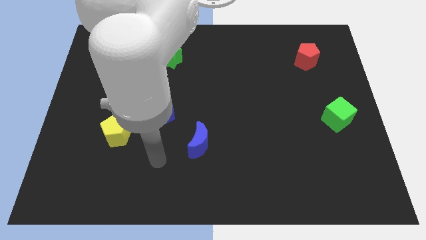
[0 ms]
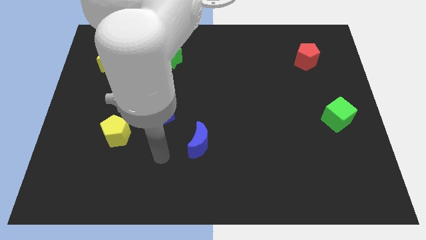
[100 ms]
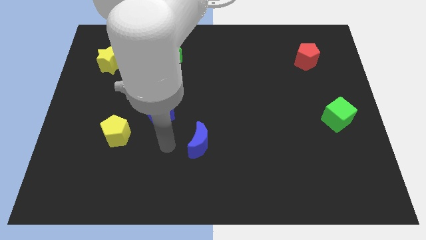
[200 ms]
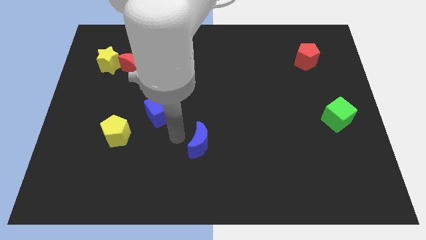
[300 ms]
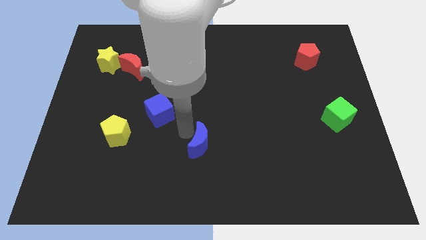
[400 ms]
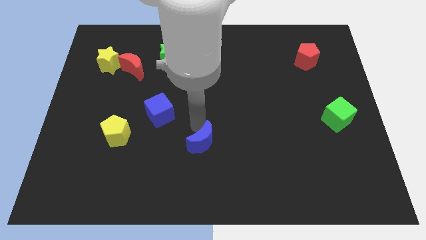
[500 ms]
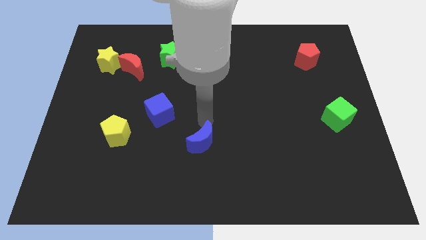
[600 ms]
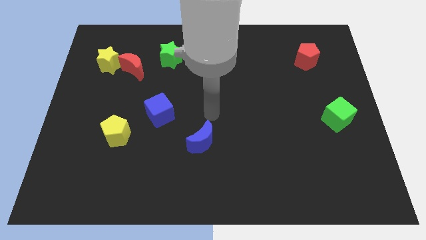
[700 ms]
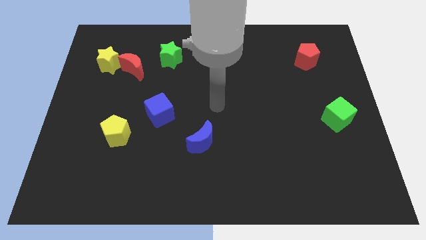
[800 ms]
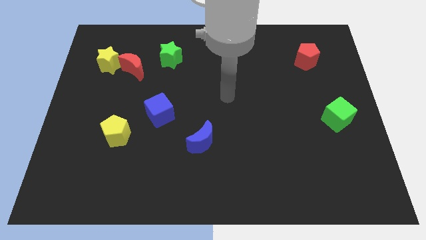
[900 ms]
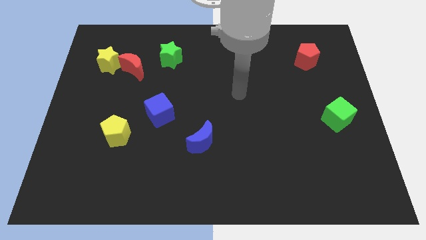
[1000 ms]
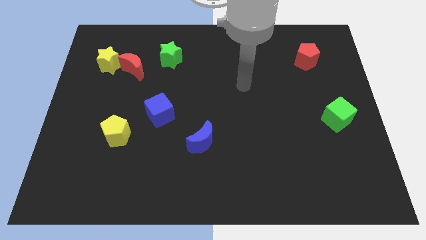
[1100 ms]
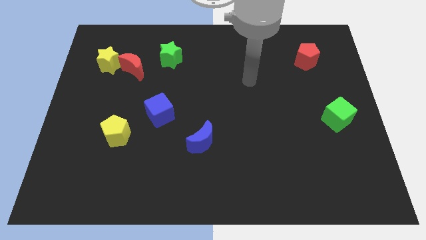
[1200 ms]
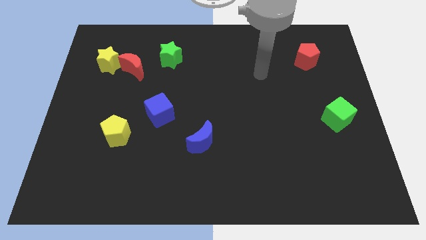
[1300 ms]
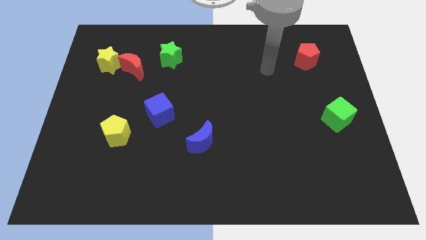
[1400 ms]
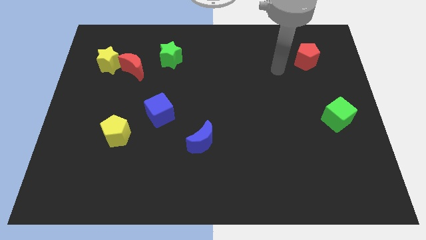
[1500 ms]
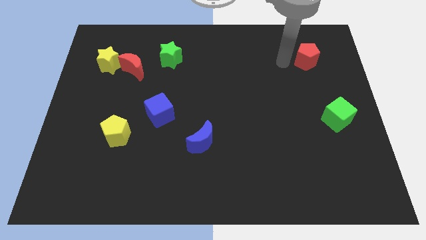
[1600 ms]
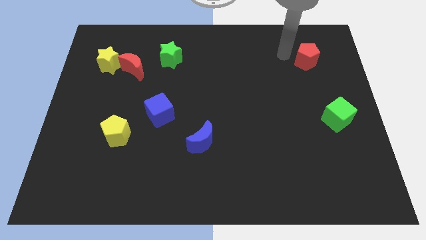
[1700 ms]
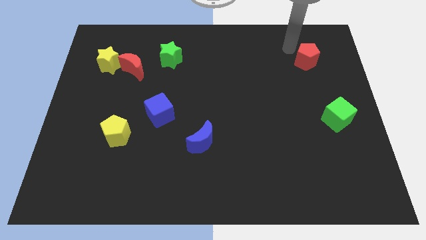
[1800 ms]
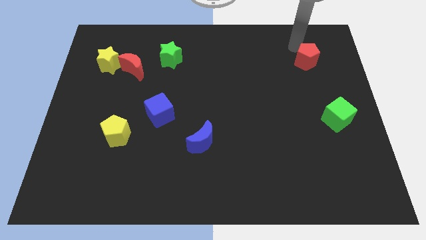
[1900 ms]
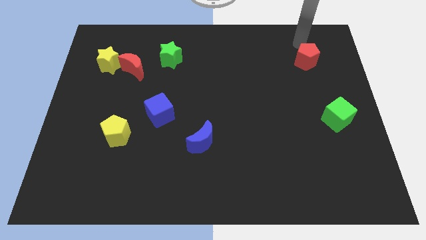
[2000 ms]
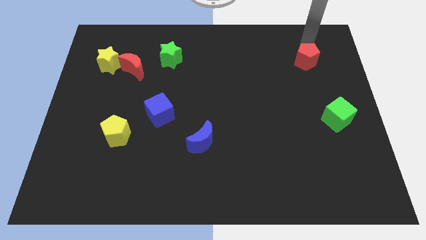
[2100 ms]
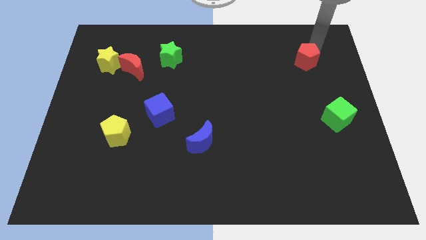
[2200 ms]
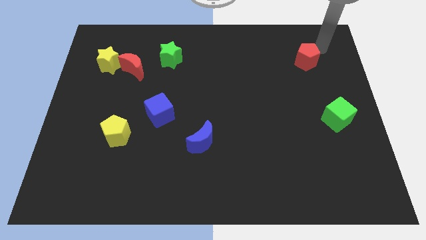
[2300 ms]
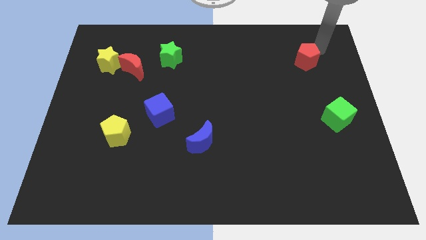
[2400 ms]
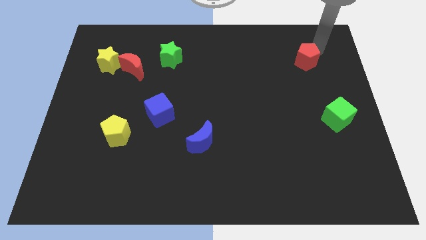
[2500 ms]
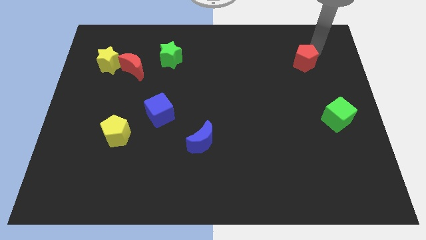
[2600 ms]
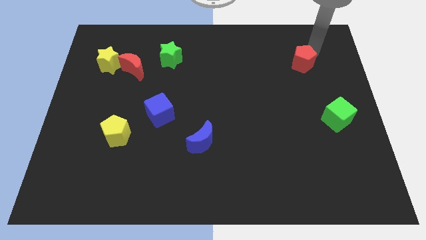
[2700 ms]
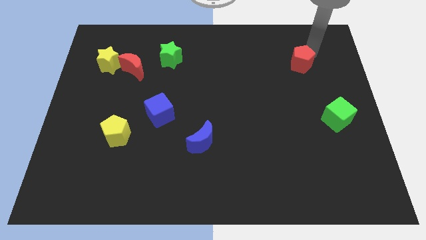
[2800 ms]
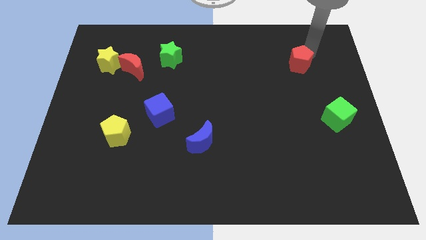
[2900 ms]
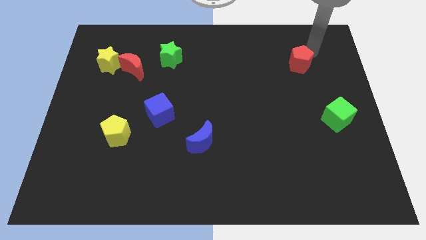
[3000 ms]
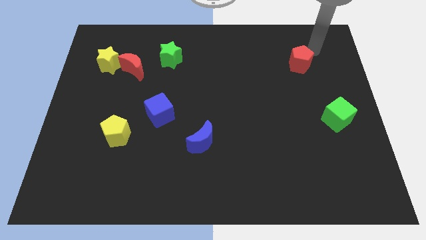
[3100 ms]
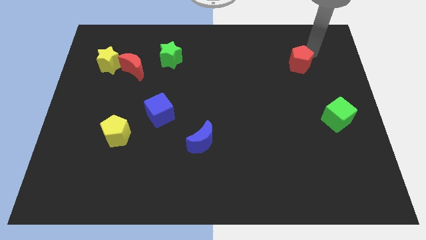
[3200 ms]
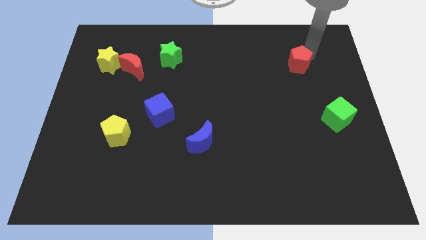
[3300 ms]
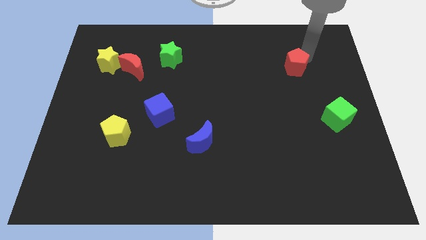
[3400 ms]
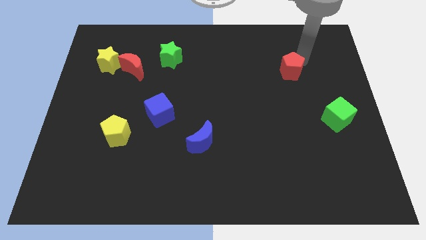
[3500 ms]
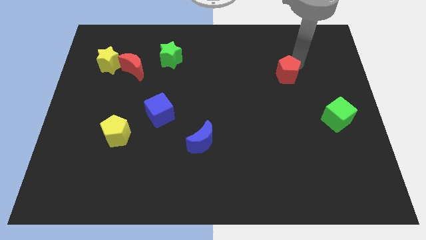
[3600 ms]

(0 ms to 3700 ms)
move the red pentagon somewhat down and left

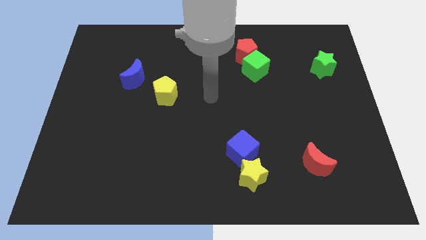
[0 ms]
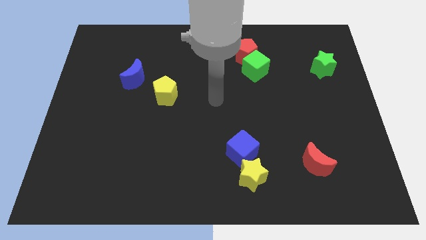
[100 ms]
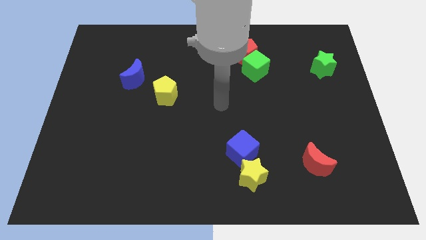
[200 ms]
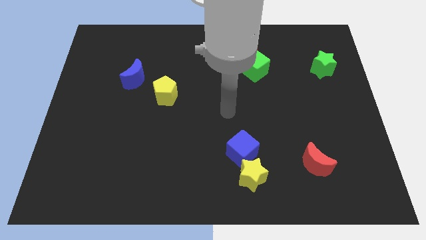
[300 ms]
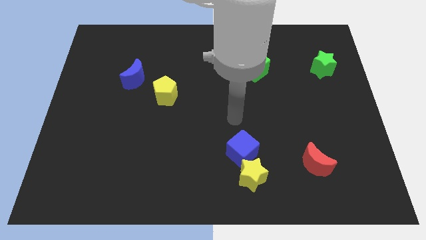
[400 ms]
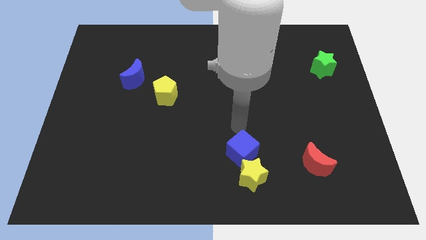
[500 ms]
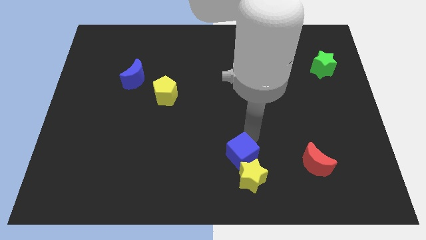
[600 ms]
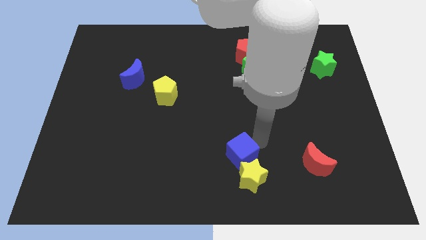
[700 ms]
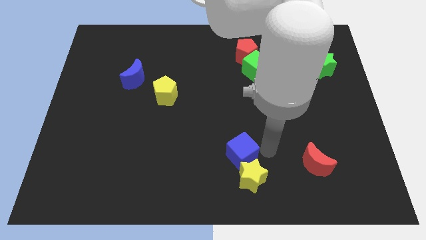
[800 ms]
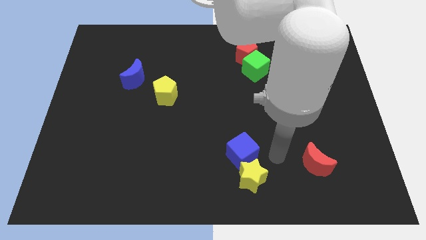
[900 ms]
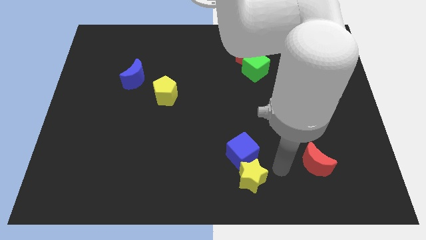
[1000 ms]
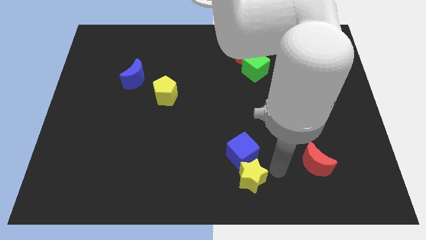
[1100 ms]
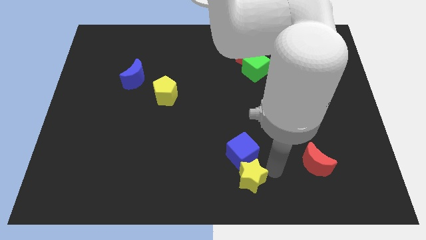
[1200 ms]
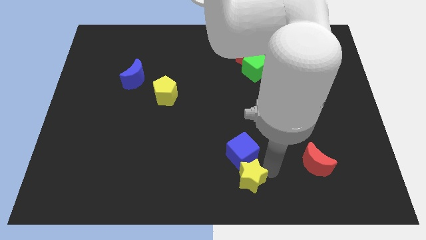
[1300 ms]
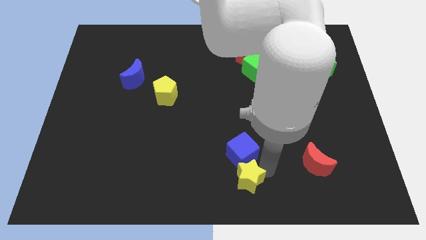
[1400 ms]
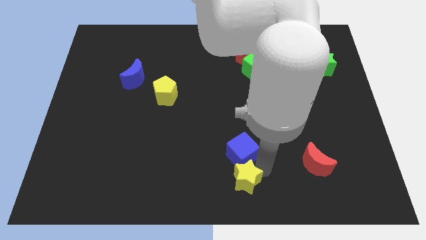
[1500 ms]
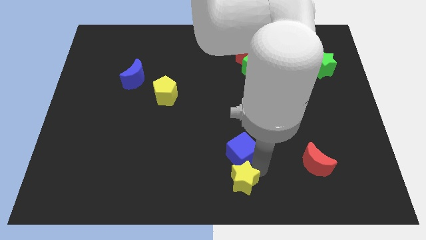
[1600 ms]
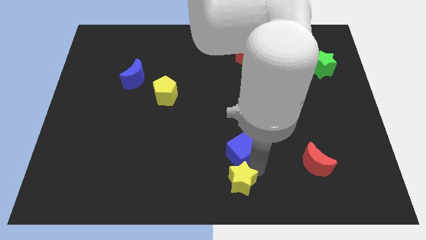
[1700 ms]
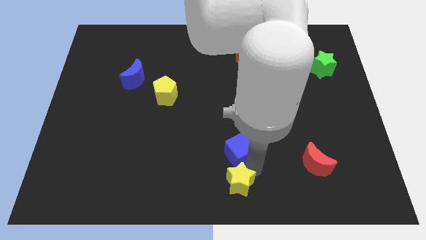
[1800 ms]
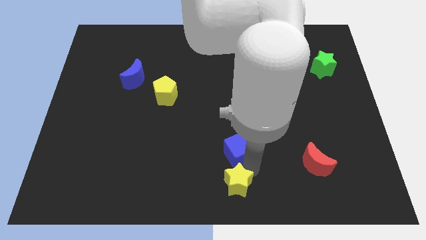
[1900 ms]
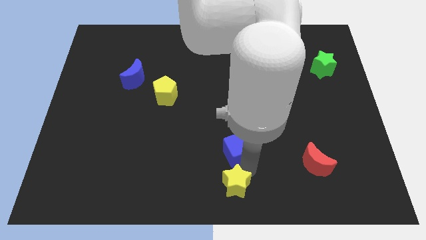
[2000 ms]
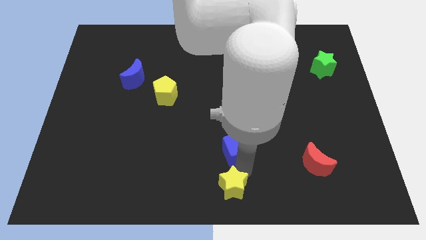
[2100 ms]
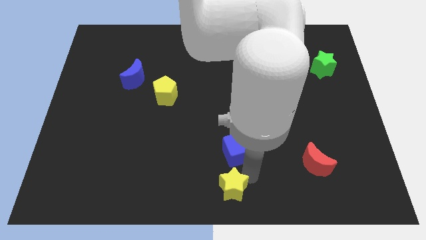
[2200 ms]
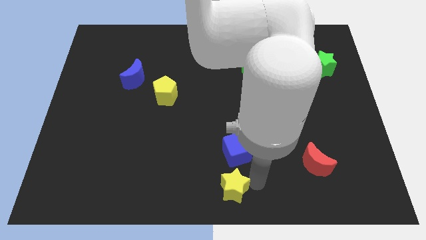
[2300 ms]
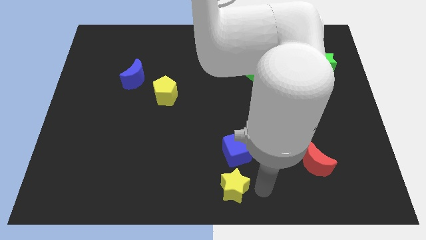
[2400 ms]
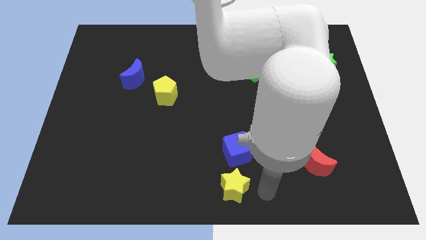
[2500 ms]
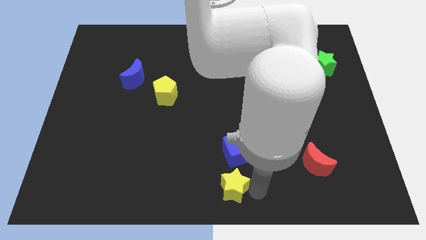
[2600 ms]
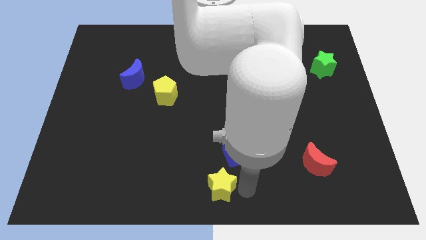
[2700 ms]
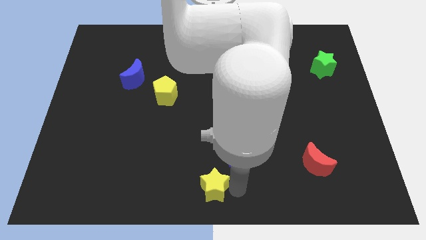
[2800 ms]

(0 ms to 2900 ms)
push the yellow star left slightly

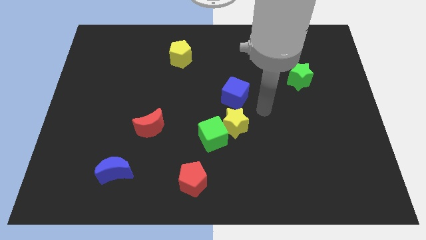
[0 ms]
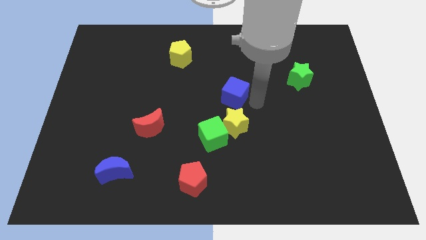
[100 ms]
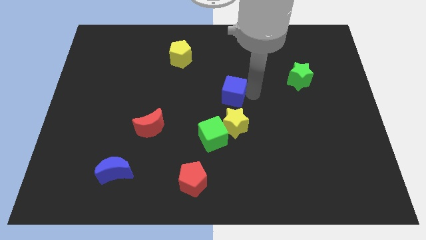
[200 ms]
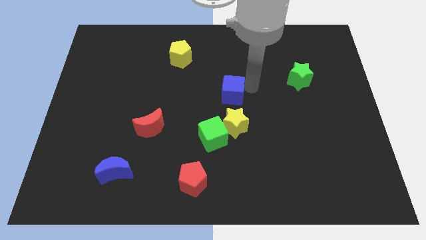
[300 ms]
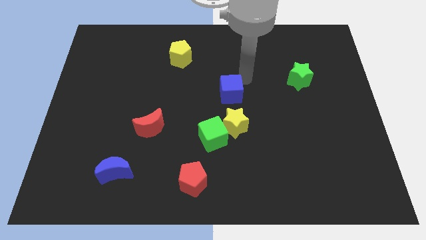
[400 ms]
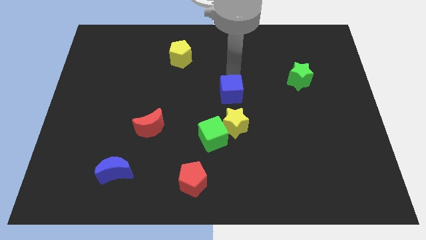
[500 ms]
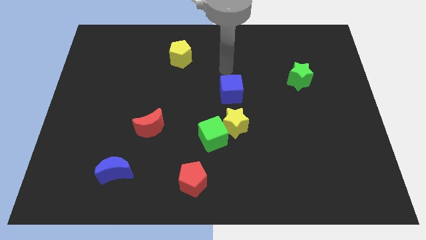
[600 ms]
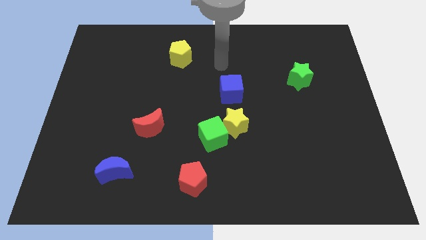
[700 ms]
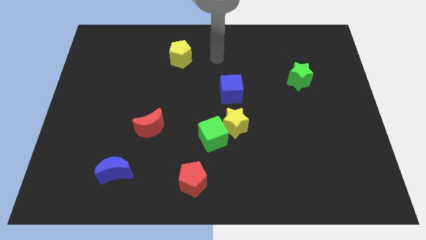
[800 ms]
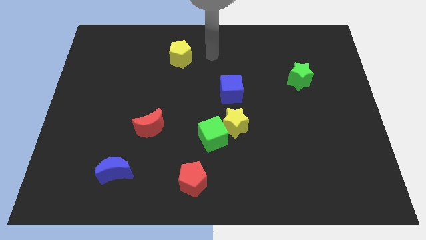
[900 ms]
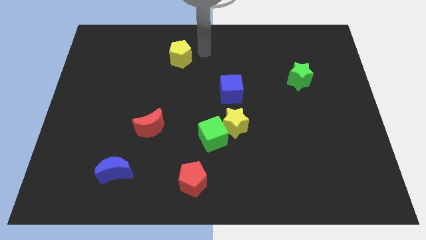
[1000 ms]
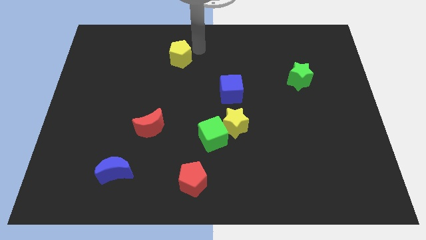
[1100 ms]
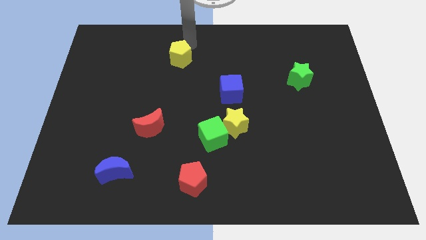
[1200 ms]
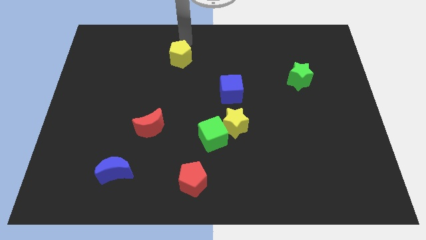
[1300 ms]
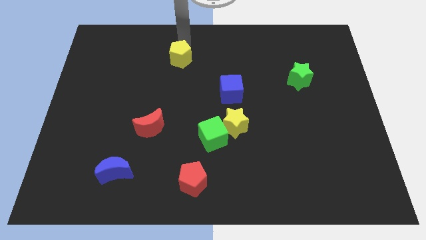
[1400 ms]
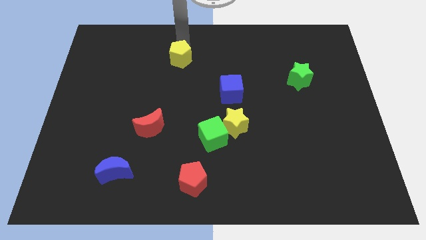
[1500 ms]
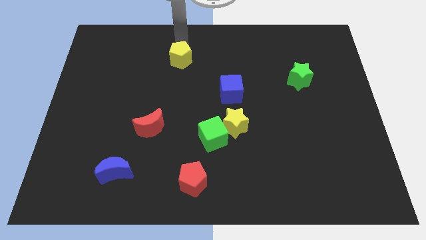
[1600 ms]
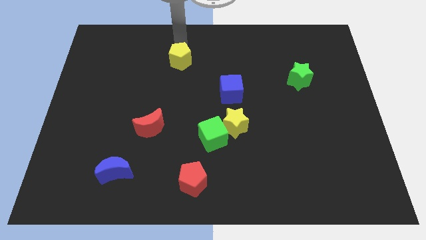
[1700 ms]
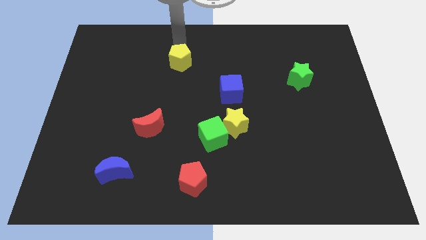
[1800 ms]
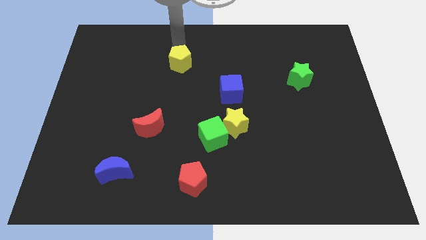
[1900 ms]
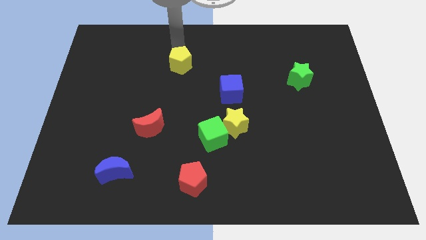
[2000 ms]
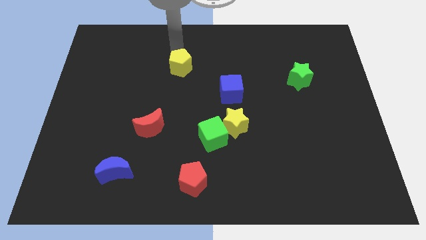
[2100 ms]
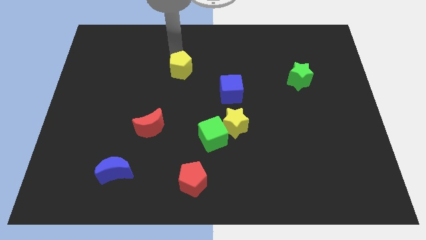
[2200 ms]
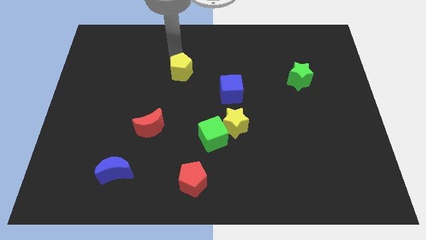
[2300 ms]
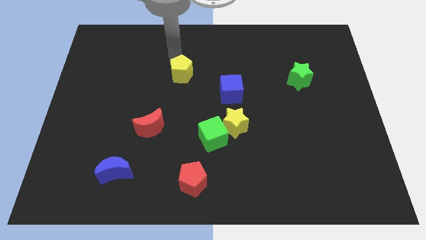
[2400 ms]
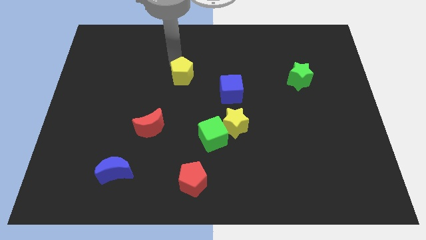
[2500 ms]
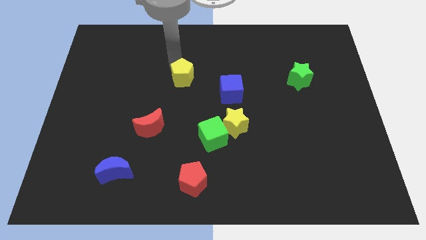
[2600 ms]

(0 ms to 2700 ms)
push the yellow pentagon downwards a bit
